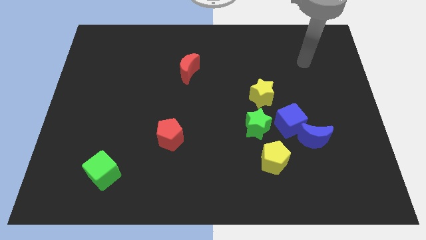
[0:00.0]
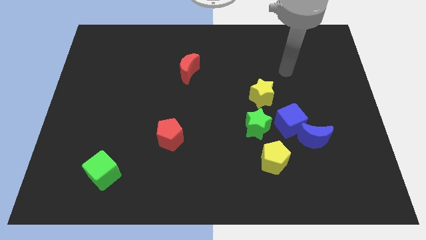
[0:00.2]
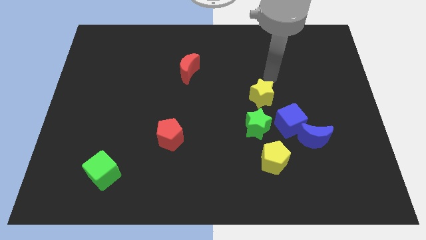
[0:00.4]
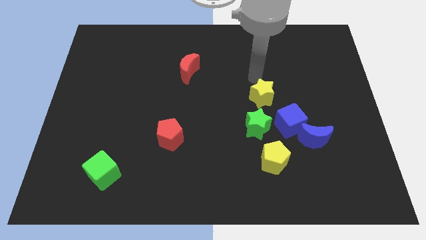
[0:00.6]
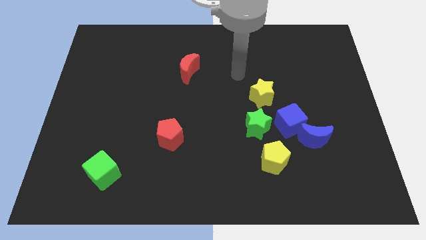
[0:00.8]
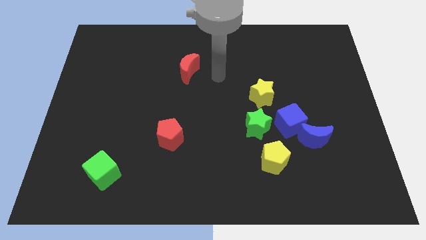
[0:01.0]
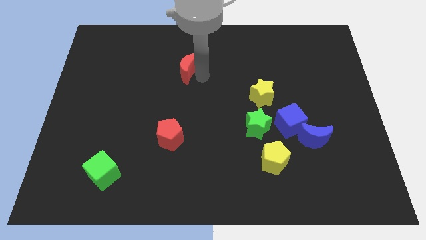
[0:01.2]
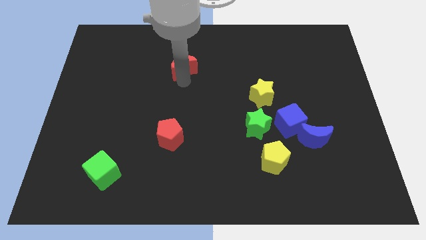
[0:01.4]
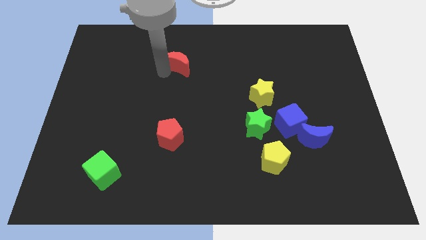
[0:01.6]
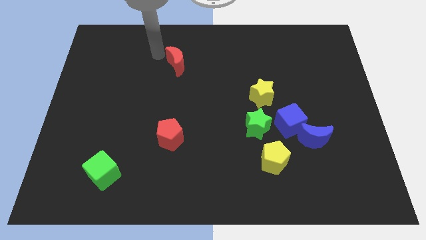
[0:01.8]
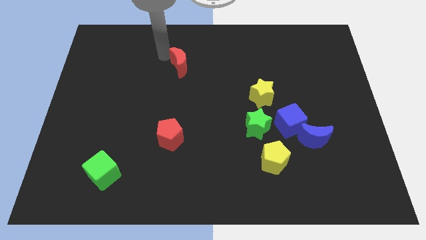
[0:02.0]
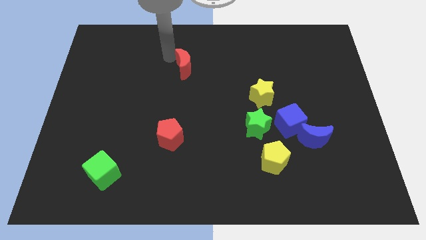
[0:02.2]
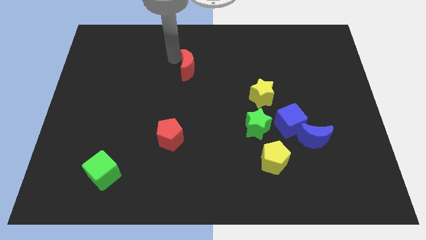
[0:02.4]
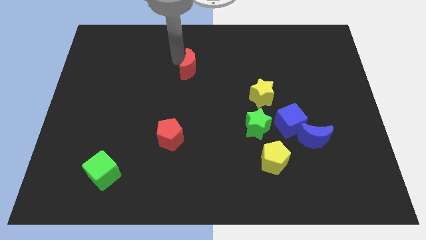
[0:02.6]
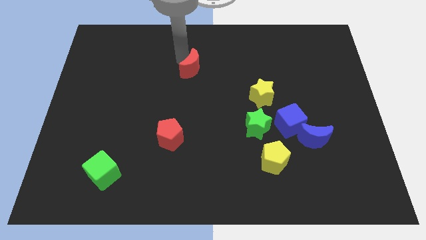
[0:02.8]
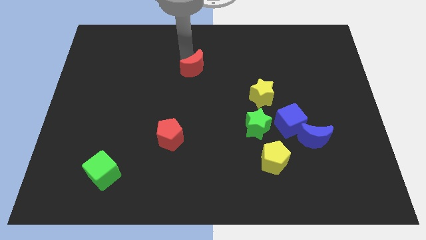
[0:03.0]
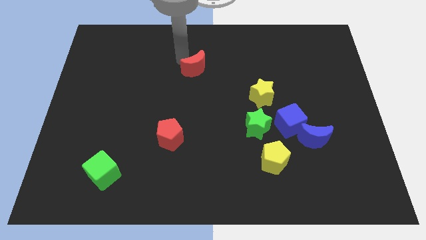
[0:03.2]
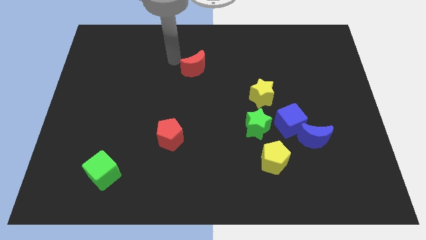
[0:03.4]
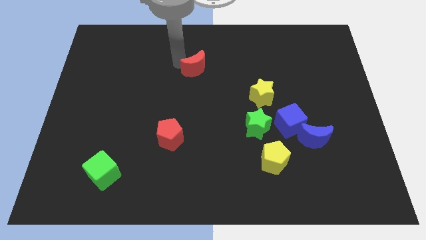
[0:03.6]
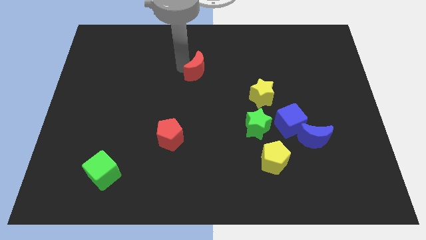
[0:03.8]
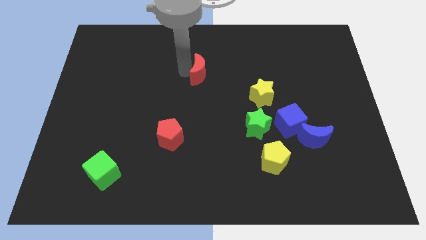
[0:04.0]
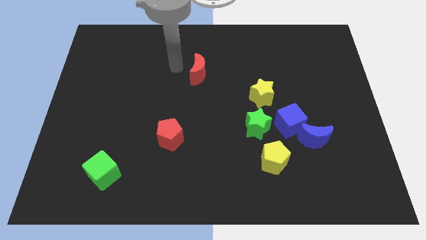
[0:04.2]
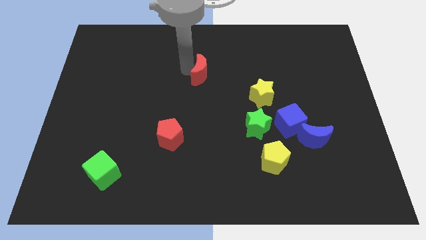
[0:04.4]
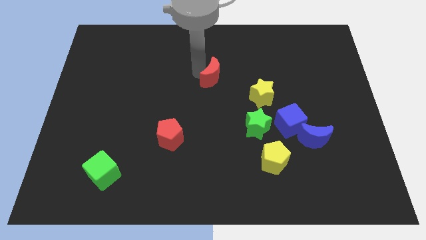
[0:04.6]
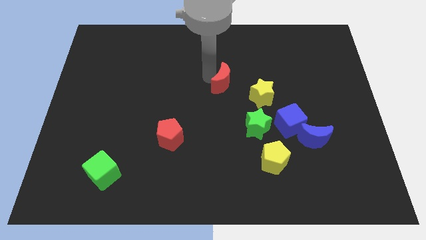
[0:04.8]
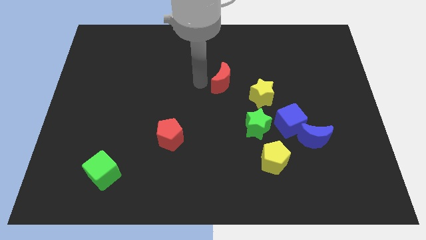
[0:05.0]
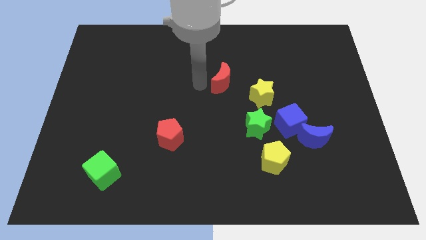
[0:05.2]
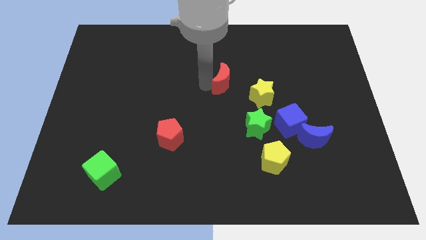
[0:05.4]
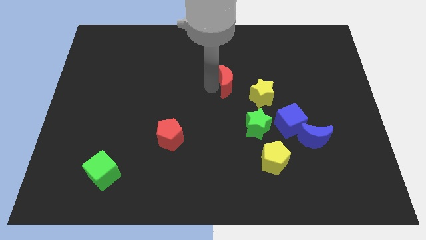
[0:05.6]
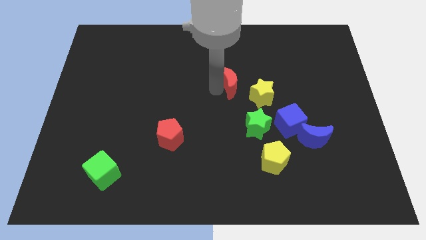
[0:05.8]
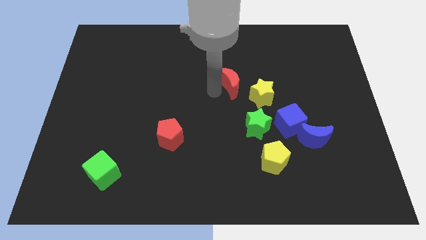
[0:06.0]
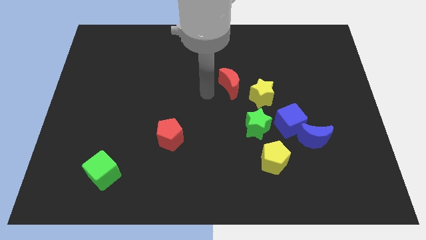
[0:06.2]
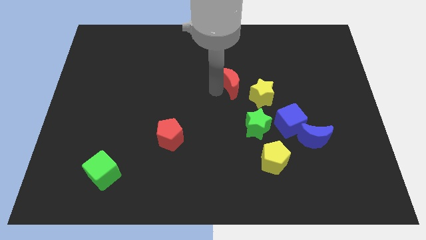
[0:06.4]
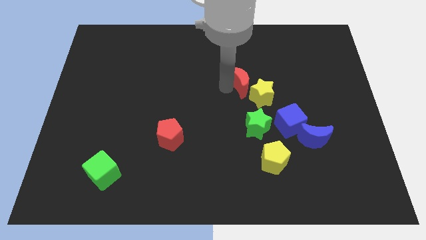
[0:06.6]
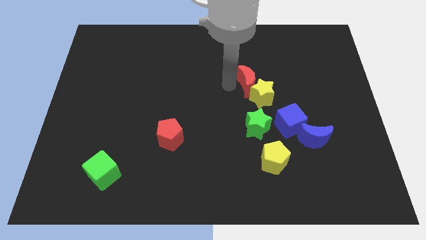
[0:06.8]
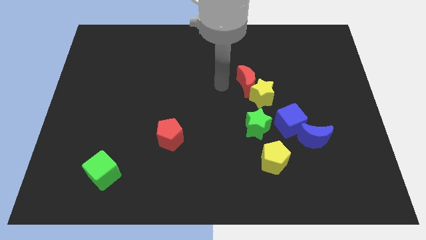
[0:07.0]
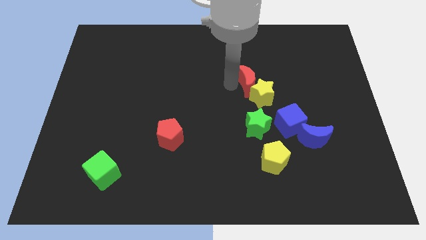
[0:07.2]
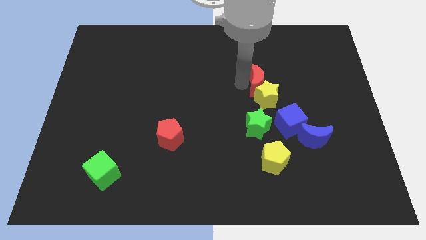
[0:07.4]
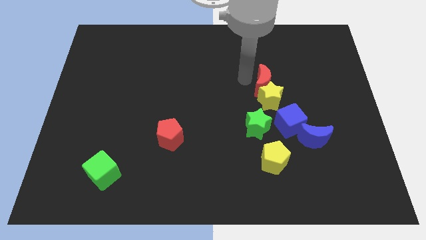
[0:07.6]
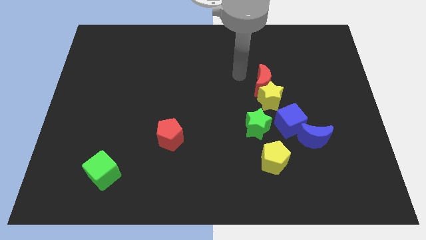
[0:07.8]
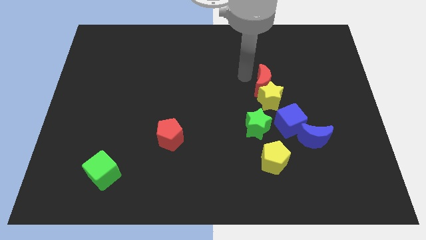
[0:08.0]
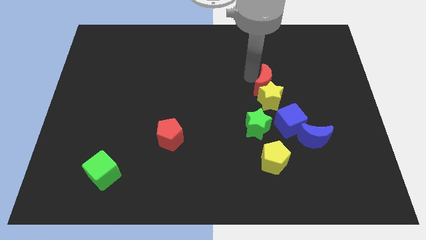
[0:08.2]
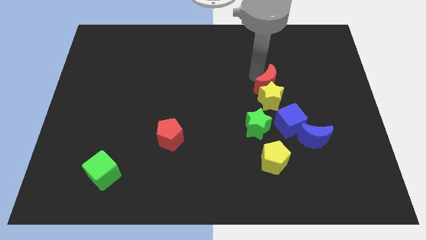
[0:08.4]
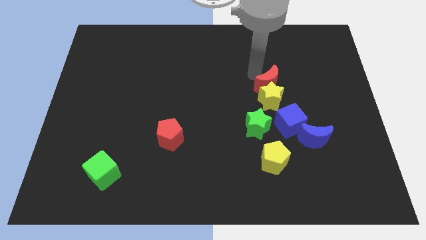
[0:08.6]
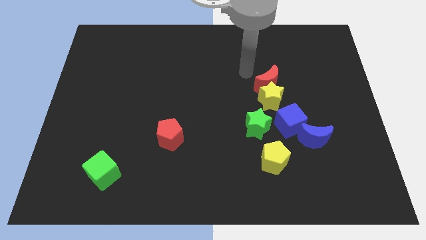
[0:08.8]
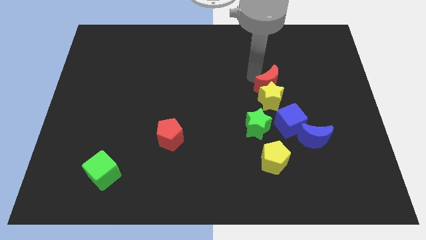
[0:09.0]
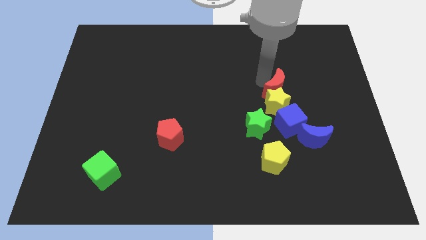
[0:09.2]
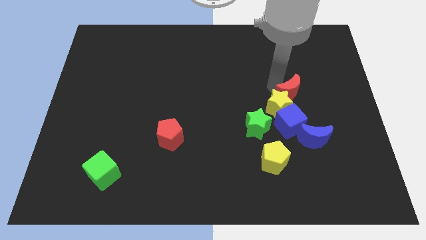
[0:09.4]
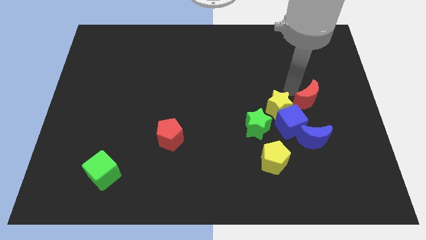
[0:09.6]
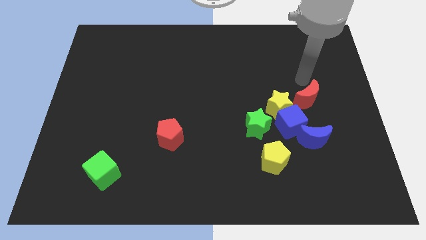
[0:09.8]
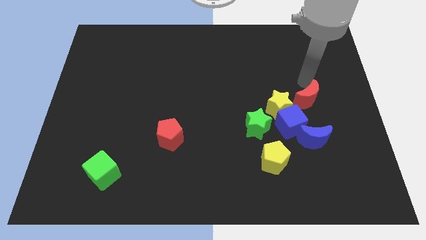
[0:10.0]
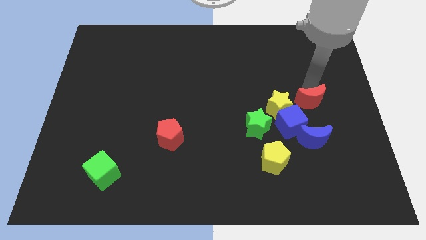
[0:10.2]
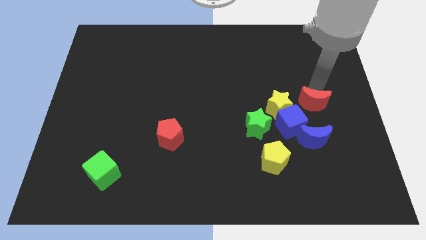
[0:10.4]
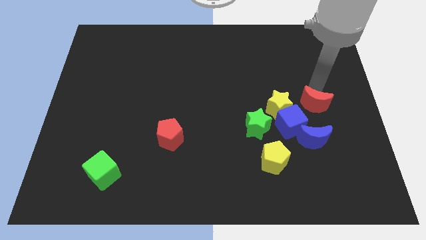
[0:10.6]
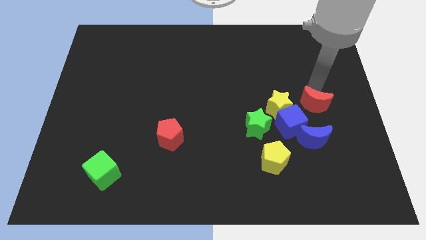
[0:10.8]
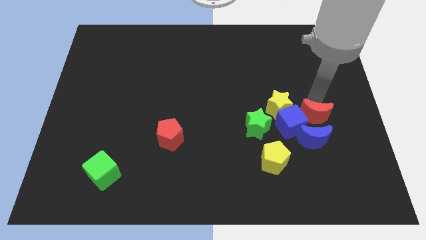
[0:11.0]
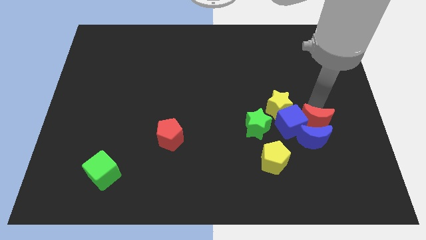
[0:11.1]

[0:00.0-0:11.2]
put the red moon towards the blue moon

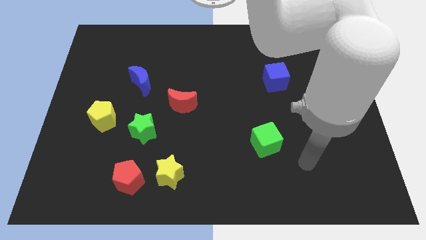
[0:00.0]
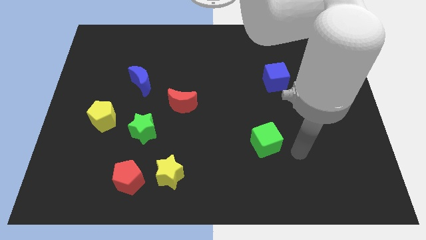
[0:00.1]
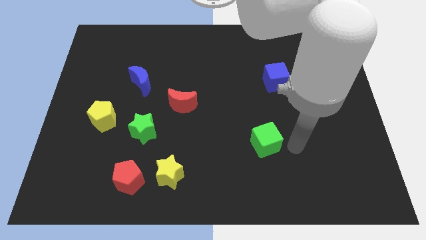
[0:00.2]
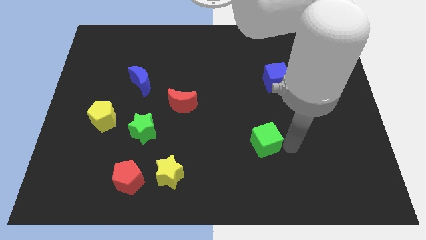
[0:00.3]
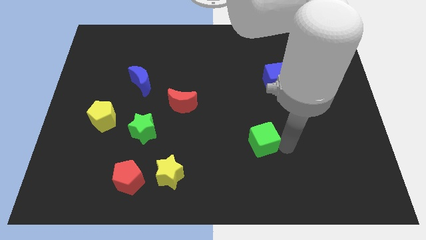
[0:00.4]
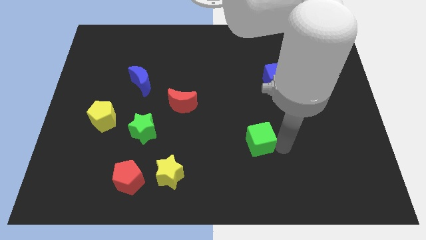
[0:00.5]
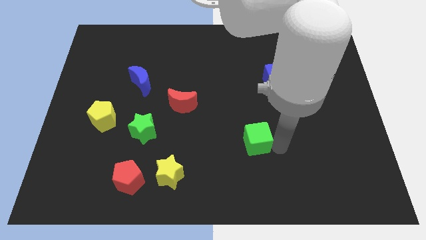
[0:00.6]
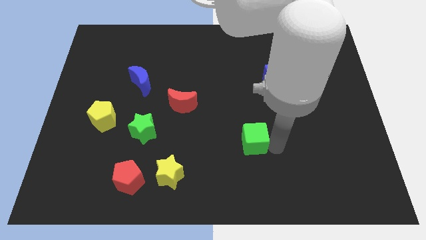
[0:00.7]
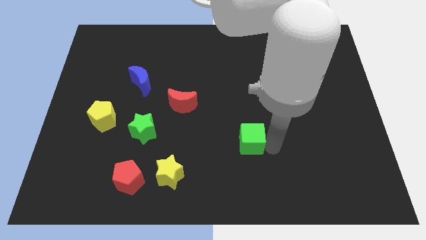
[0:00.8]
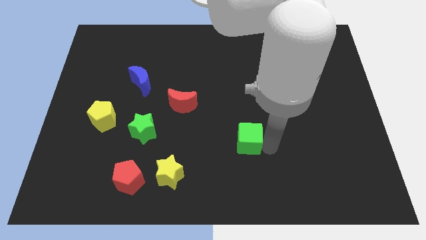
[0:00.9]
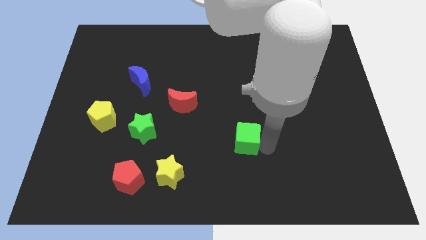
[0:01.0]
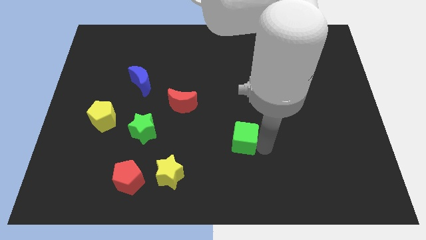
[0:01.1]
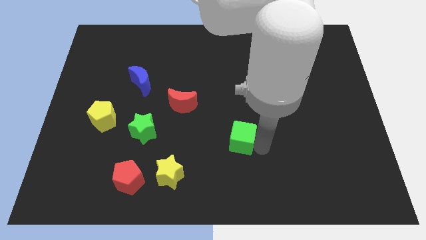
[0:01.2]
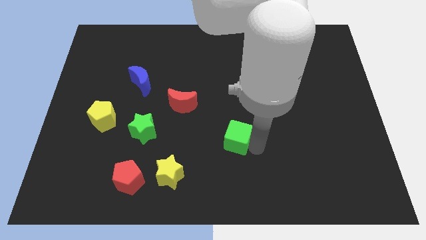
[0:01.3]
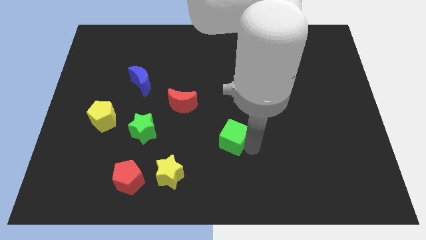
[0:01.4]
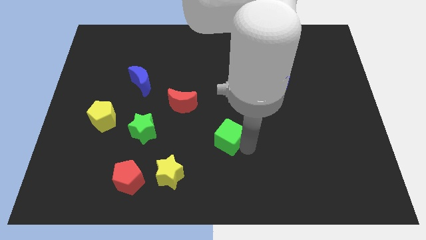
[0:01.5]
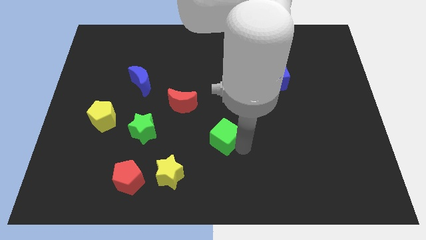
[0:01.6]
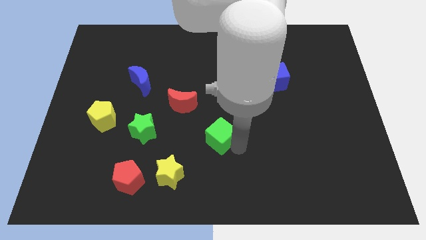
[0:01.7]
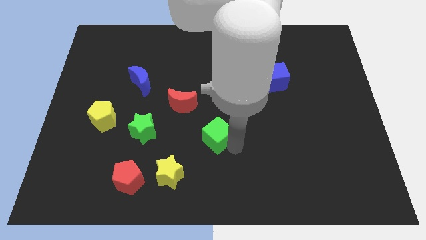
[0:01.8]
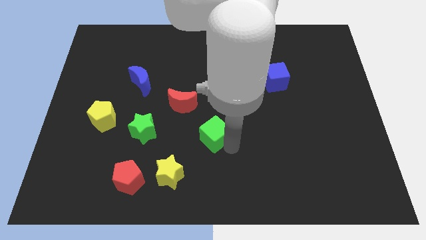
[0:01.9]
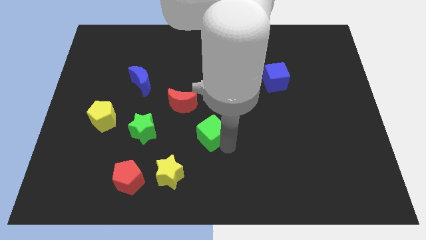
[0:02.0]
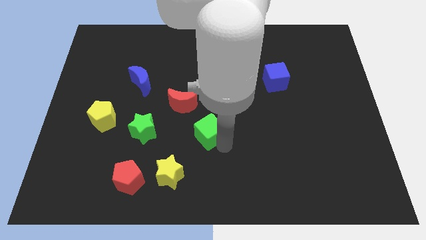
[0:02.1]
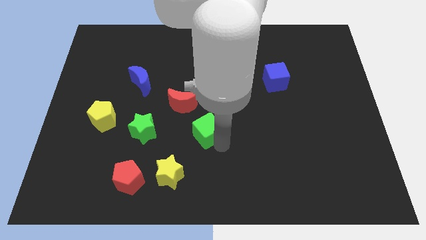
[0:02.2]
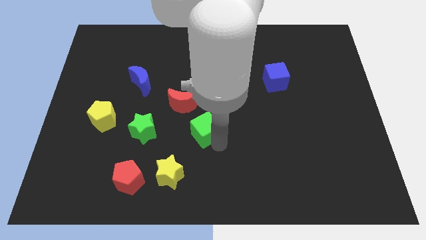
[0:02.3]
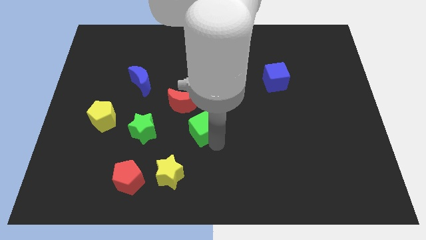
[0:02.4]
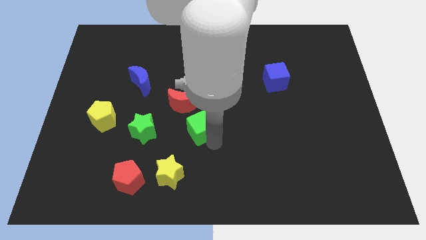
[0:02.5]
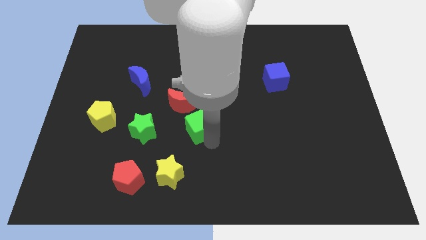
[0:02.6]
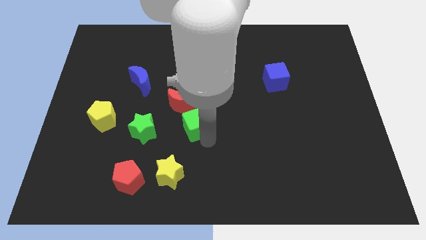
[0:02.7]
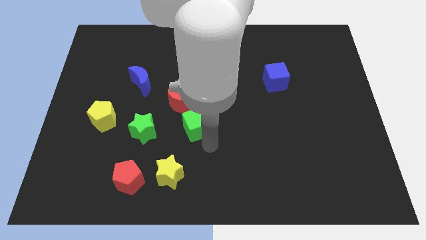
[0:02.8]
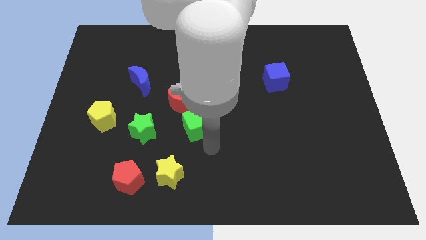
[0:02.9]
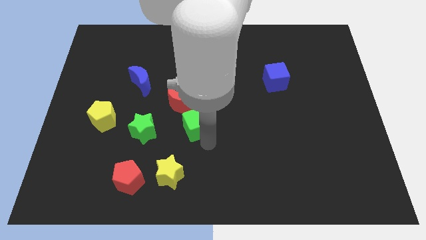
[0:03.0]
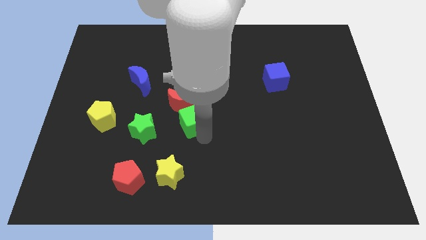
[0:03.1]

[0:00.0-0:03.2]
push the green cube to the red moon
